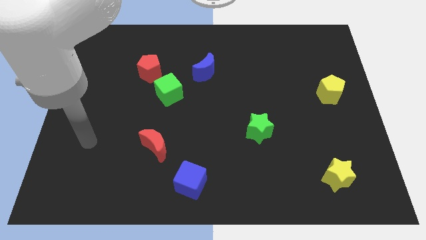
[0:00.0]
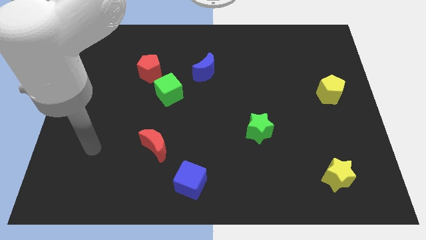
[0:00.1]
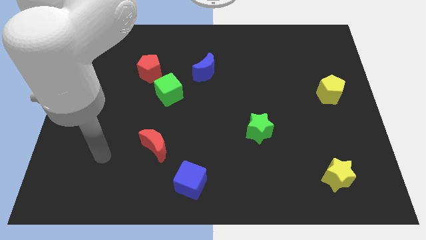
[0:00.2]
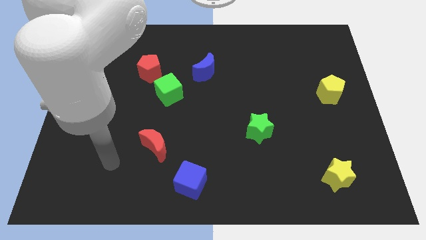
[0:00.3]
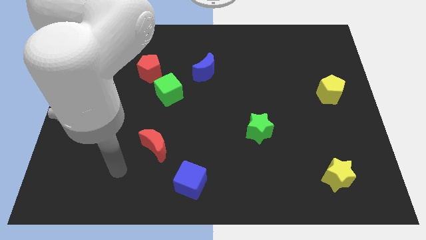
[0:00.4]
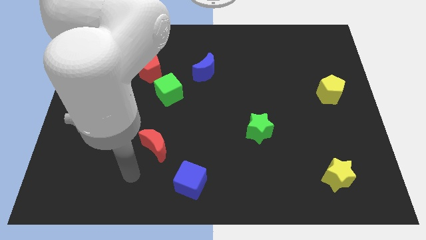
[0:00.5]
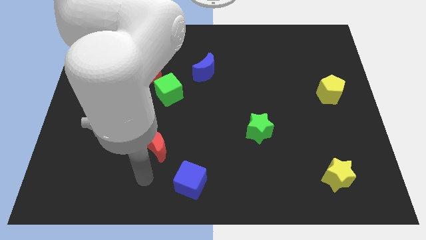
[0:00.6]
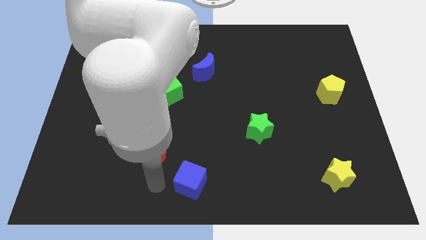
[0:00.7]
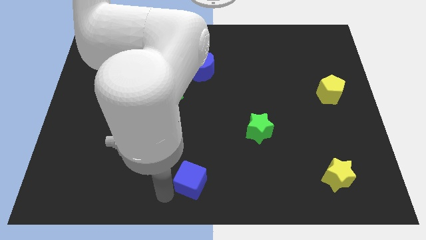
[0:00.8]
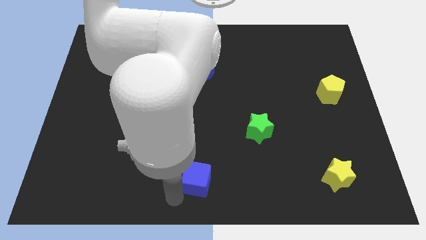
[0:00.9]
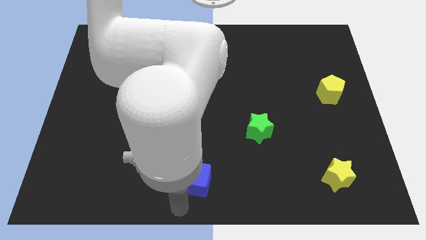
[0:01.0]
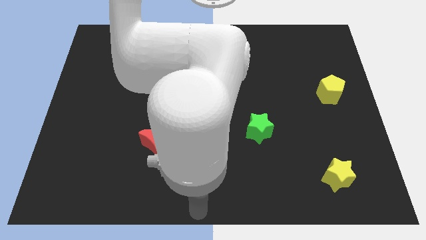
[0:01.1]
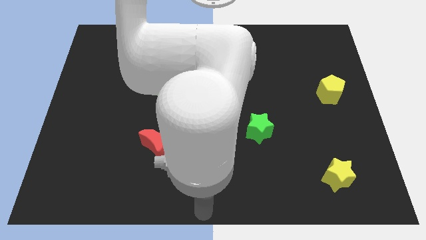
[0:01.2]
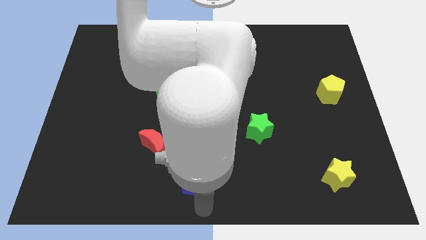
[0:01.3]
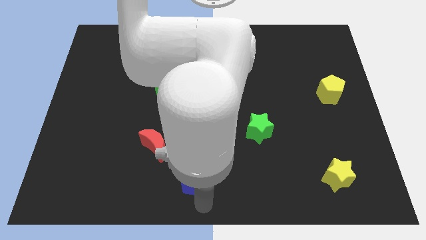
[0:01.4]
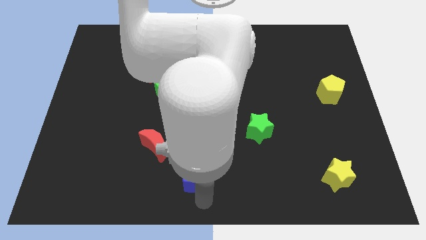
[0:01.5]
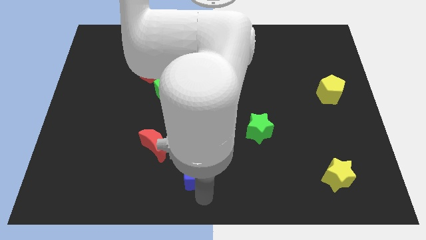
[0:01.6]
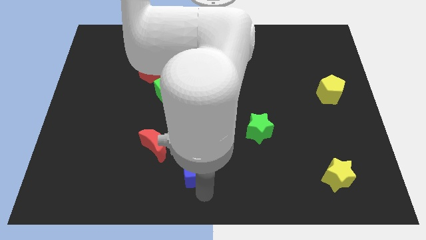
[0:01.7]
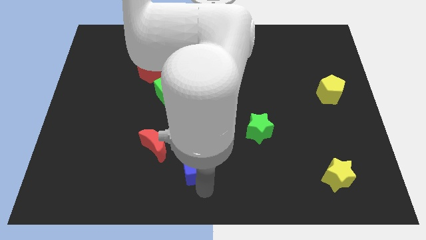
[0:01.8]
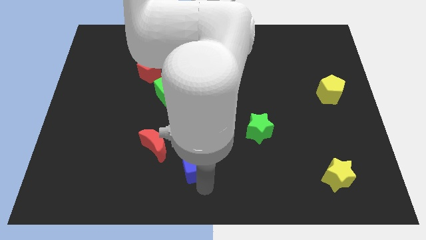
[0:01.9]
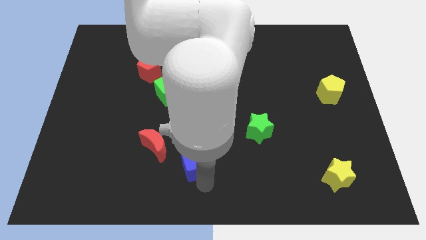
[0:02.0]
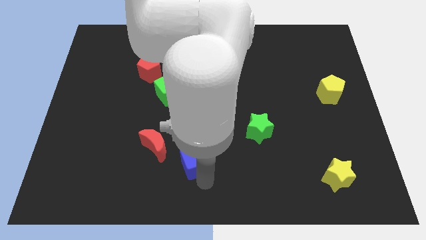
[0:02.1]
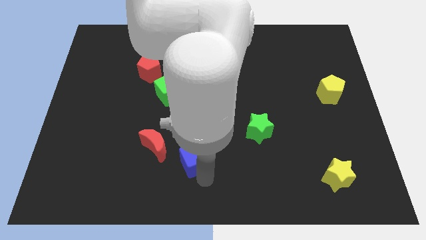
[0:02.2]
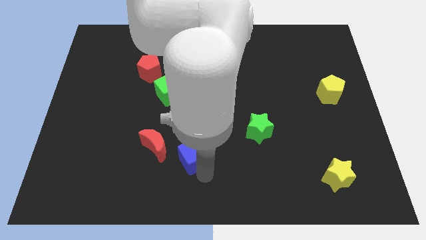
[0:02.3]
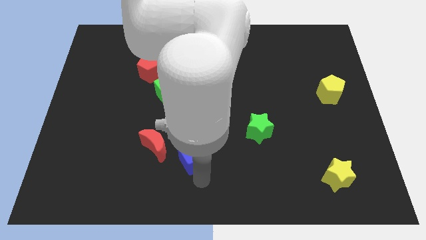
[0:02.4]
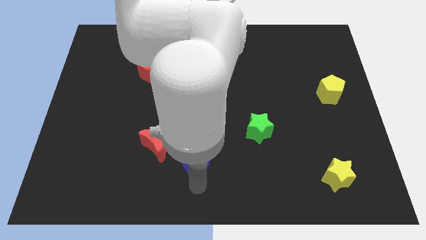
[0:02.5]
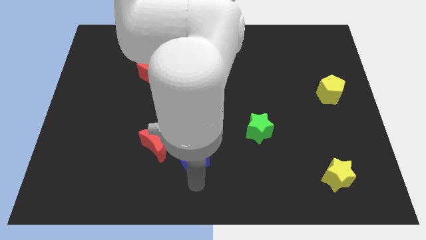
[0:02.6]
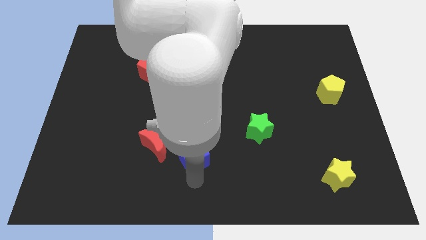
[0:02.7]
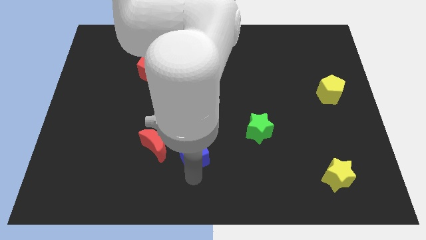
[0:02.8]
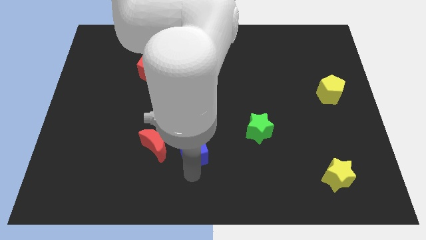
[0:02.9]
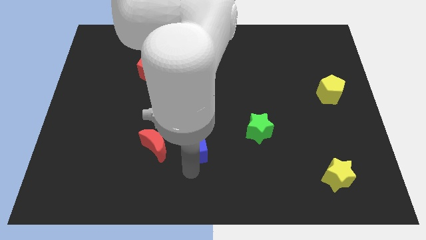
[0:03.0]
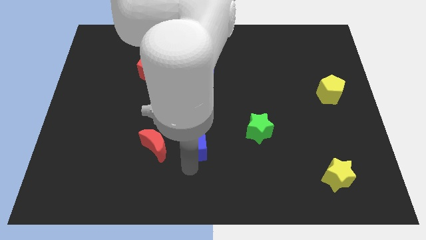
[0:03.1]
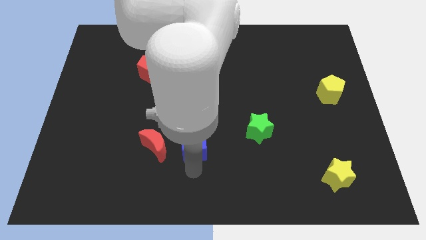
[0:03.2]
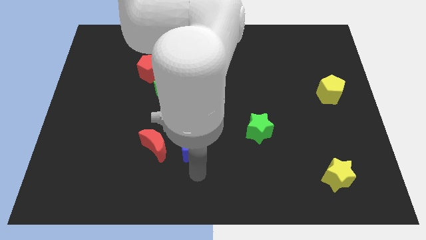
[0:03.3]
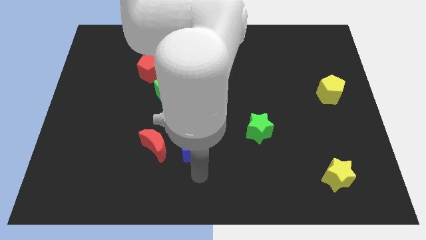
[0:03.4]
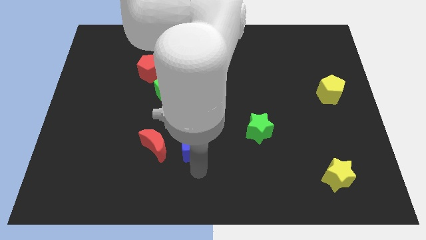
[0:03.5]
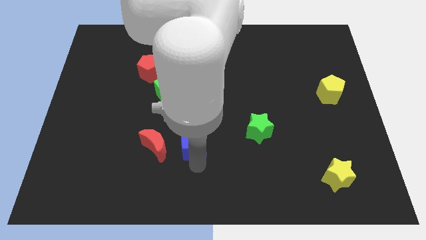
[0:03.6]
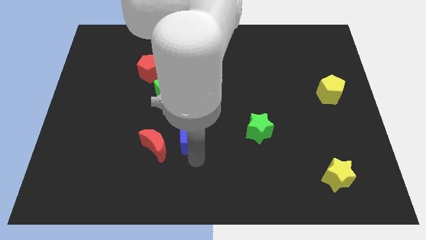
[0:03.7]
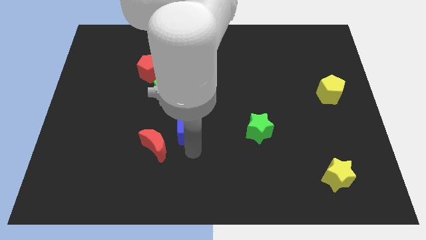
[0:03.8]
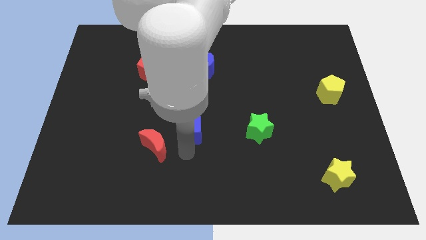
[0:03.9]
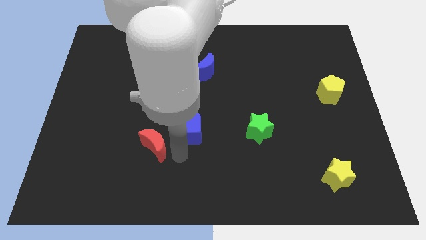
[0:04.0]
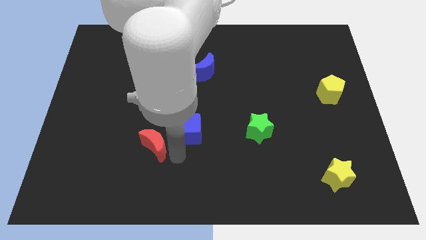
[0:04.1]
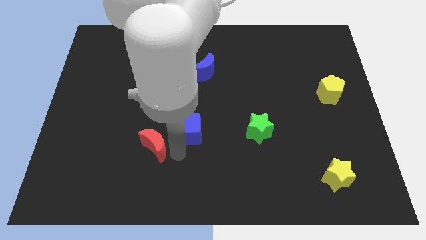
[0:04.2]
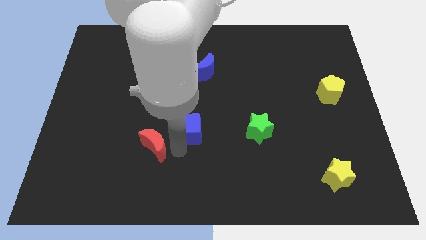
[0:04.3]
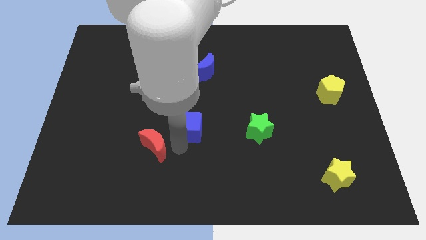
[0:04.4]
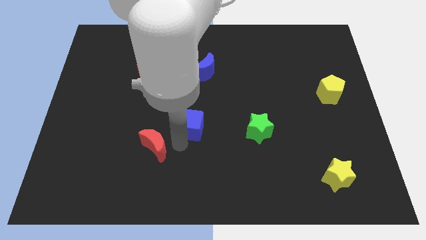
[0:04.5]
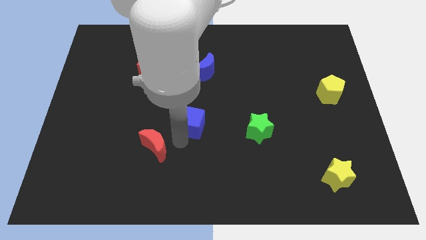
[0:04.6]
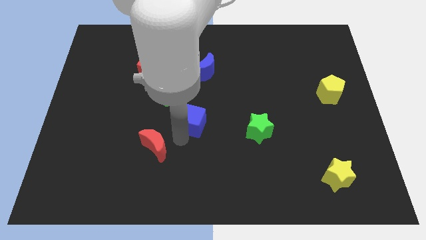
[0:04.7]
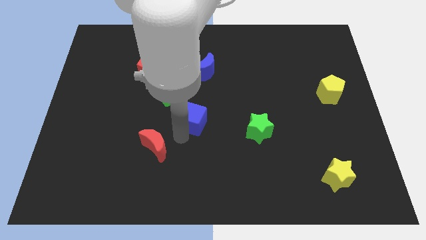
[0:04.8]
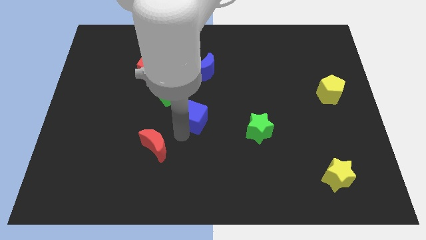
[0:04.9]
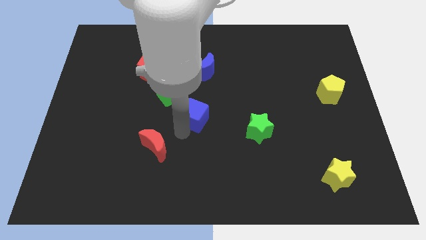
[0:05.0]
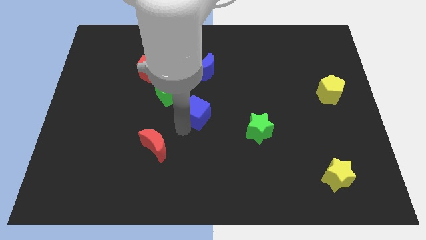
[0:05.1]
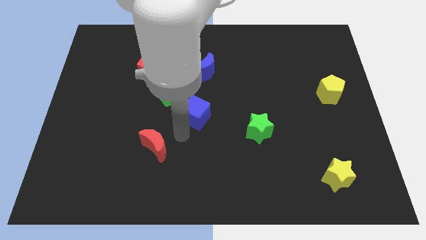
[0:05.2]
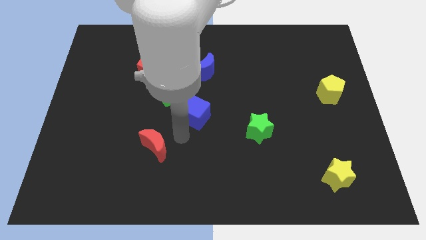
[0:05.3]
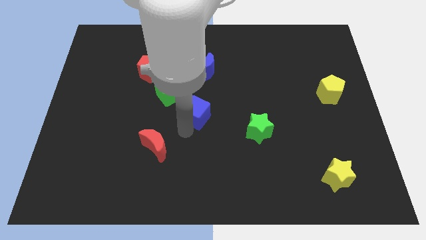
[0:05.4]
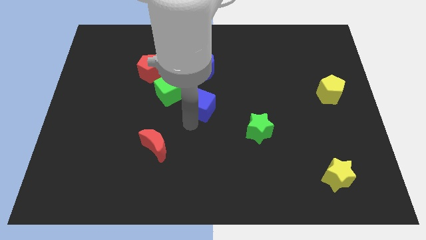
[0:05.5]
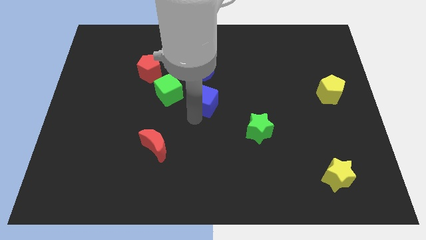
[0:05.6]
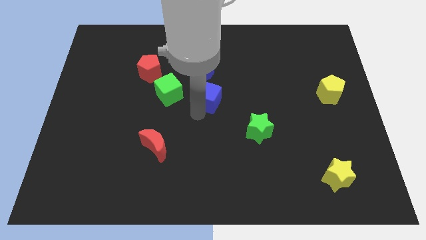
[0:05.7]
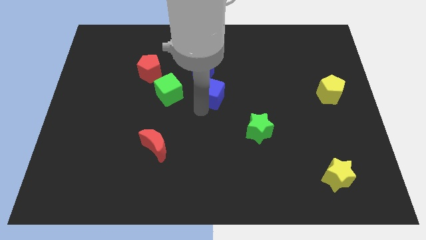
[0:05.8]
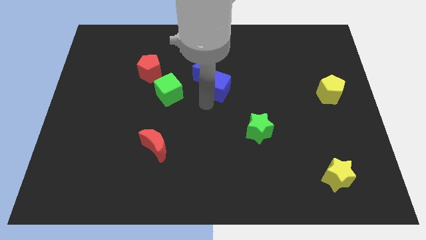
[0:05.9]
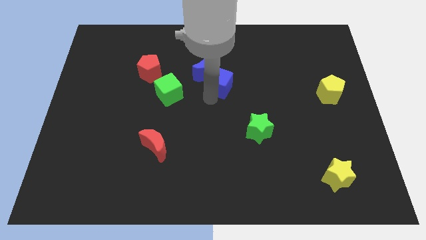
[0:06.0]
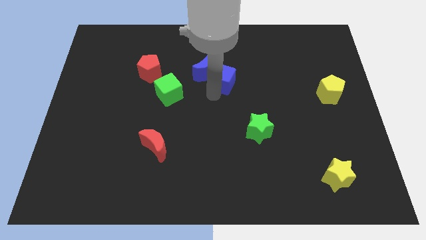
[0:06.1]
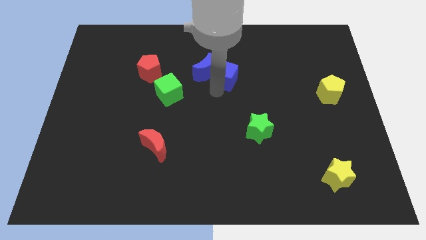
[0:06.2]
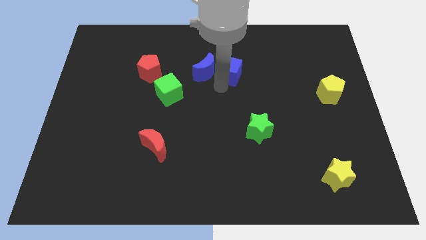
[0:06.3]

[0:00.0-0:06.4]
push the blue cube to the top right of the blue moon
